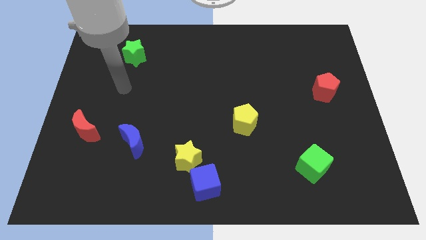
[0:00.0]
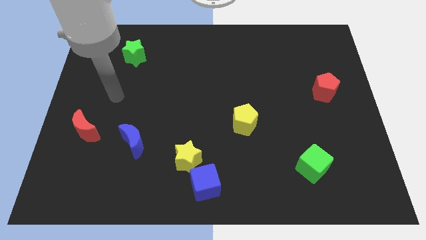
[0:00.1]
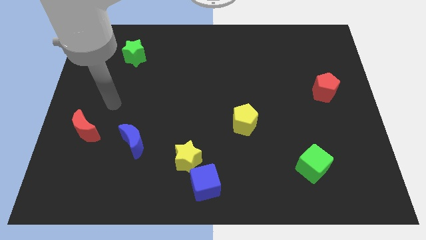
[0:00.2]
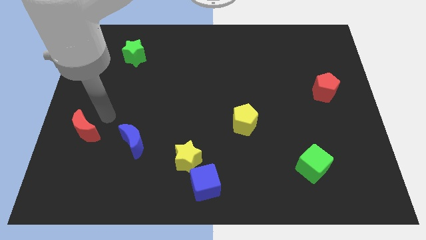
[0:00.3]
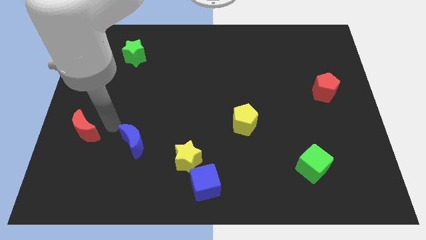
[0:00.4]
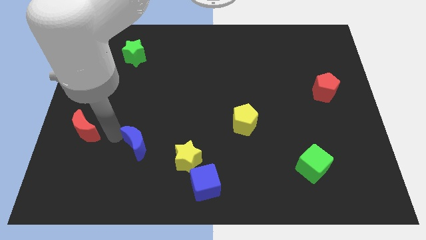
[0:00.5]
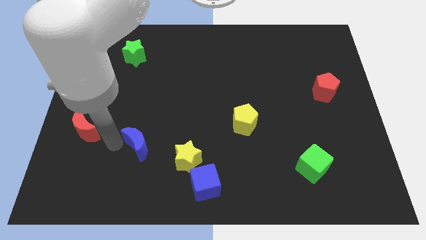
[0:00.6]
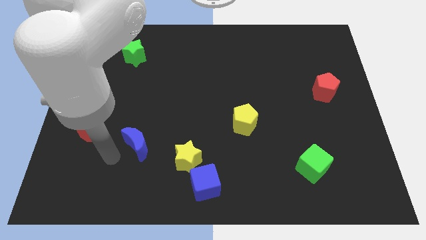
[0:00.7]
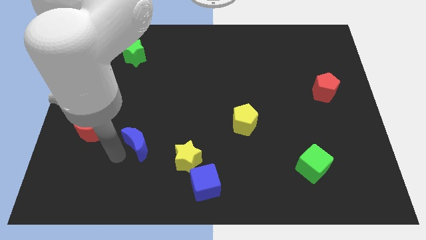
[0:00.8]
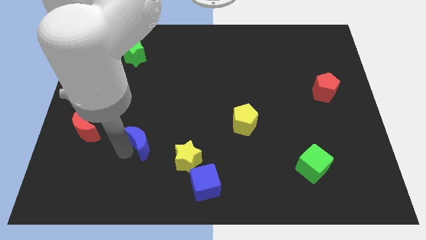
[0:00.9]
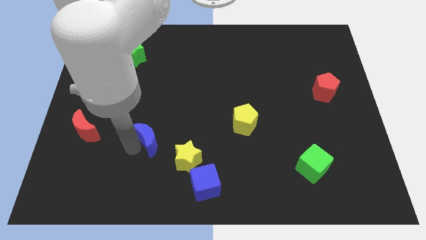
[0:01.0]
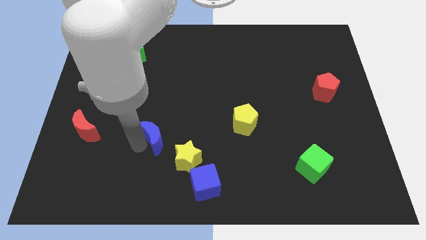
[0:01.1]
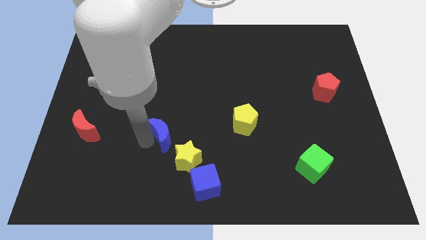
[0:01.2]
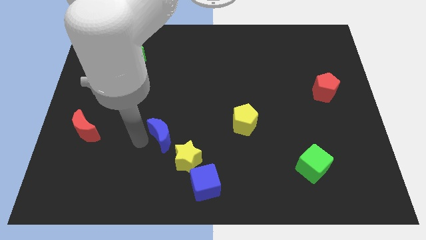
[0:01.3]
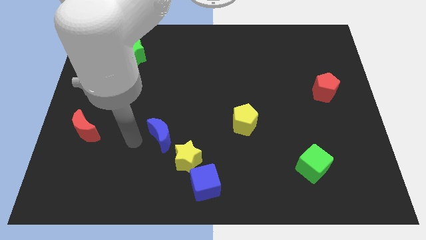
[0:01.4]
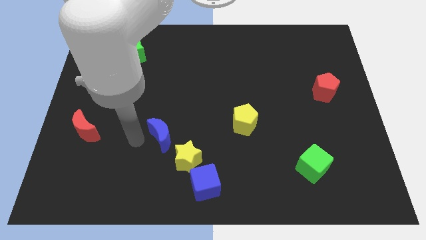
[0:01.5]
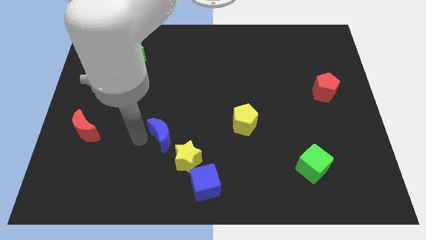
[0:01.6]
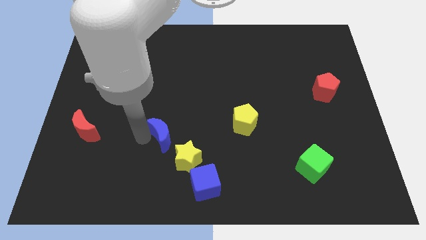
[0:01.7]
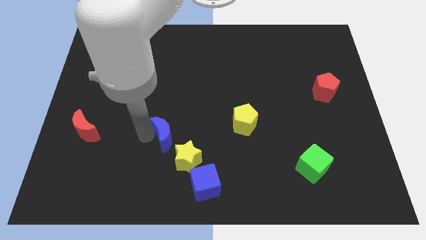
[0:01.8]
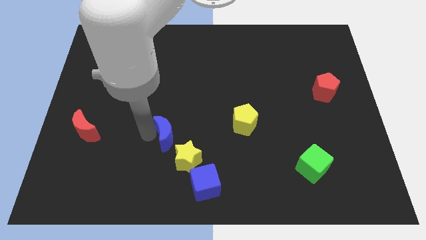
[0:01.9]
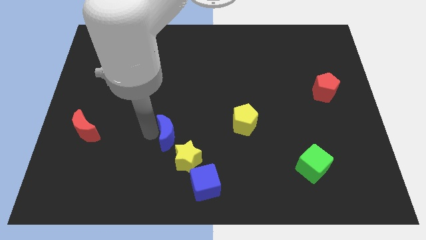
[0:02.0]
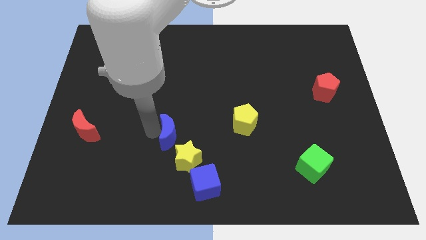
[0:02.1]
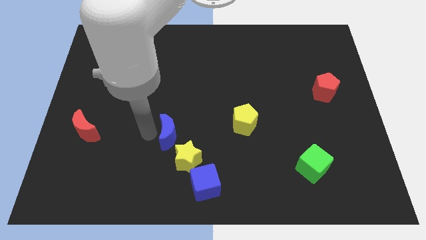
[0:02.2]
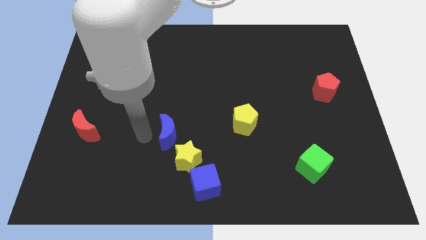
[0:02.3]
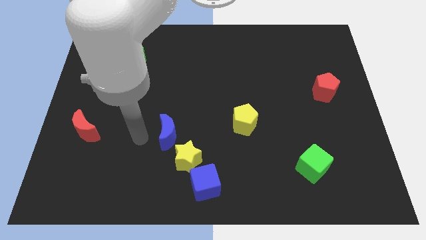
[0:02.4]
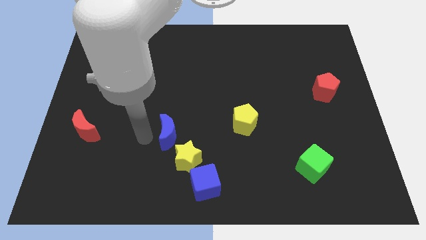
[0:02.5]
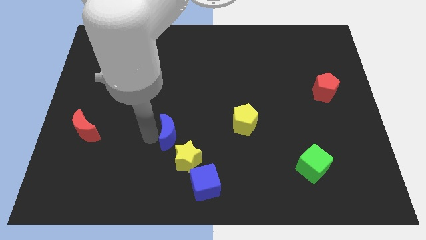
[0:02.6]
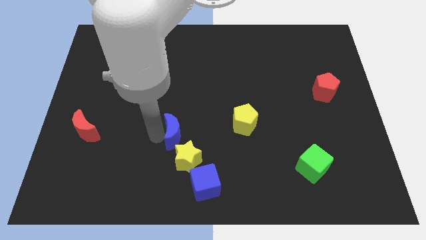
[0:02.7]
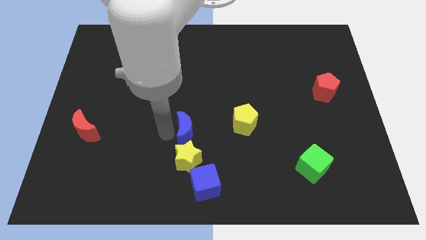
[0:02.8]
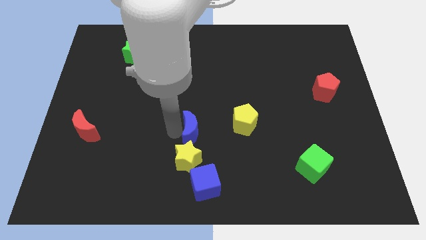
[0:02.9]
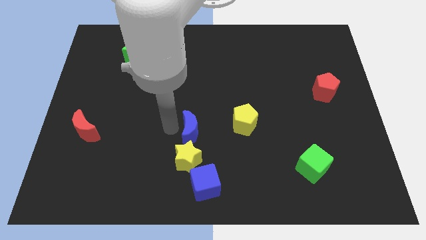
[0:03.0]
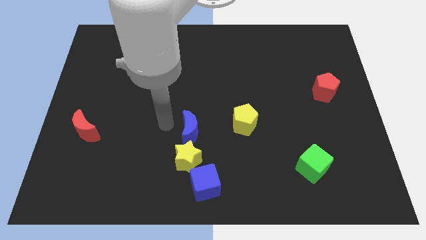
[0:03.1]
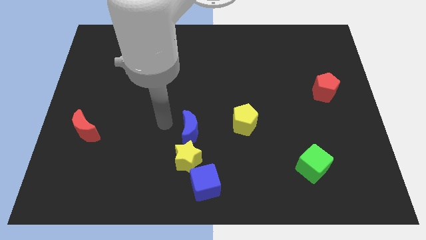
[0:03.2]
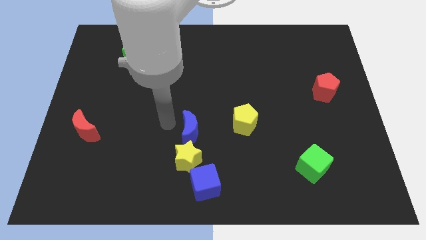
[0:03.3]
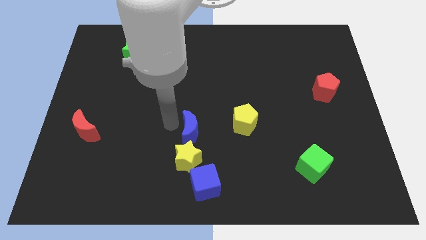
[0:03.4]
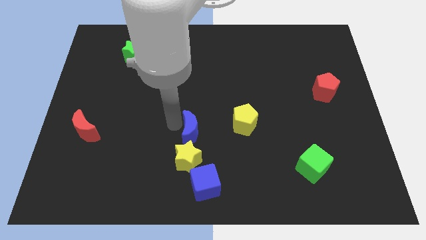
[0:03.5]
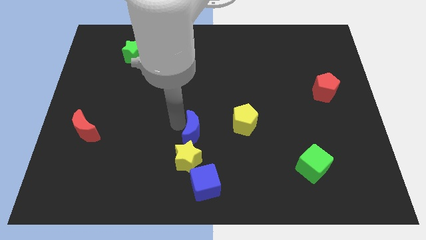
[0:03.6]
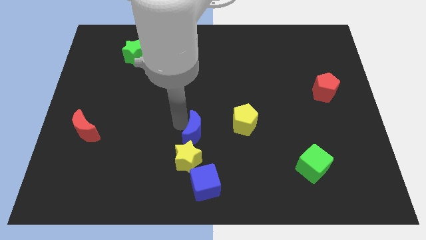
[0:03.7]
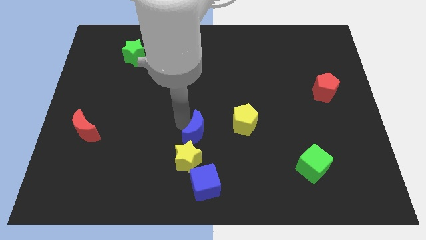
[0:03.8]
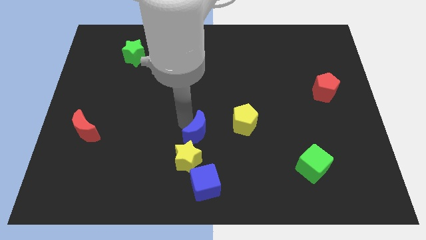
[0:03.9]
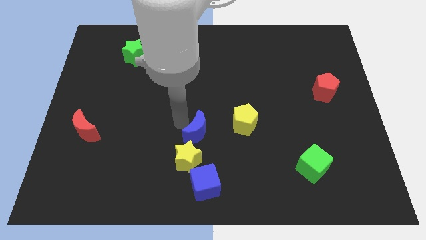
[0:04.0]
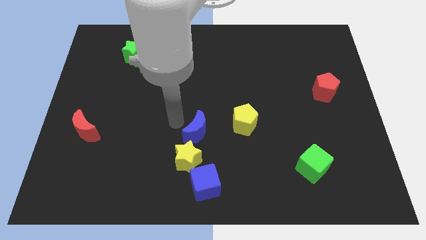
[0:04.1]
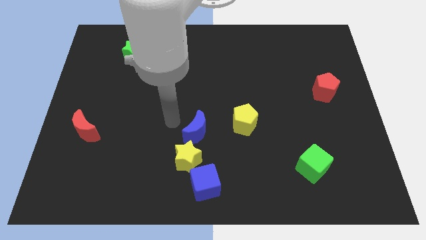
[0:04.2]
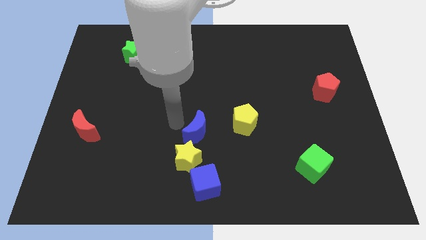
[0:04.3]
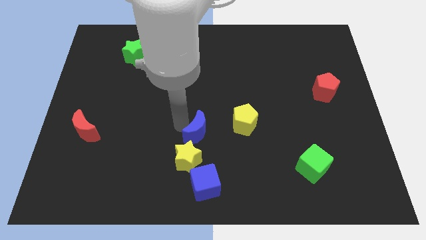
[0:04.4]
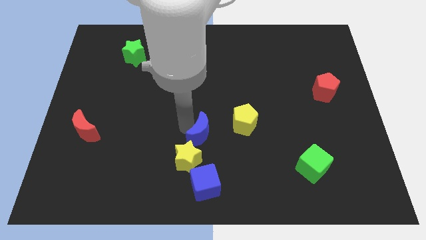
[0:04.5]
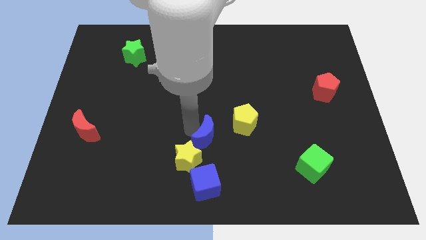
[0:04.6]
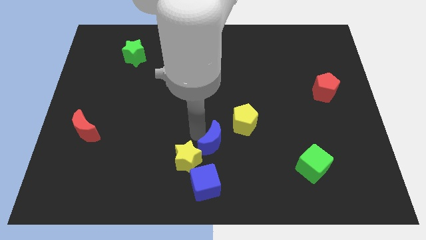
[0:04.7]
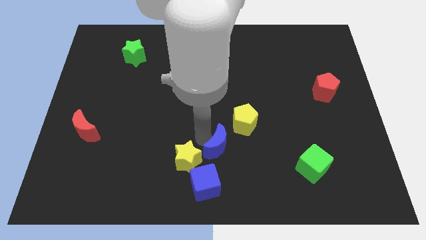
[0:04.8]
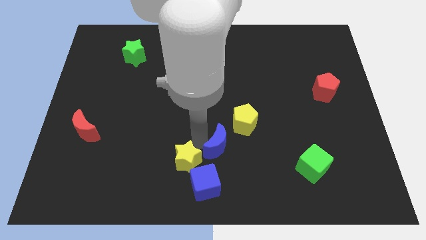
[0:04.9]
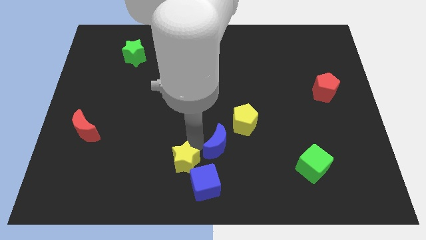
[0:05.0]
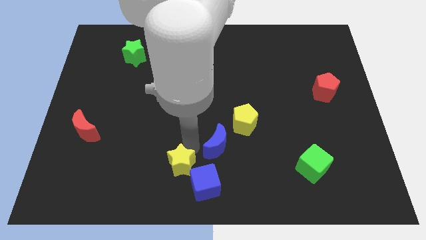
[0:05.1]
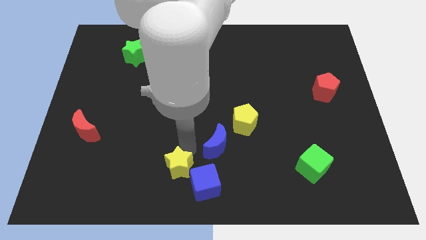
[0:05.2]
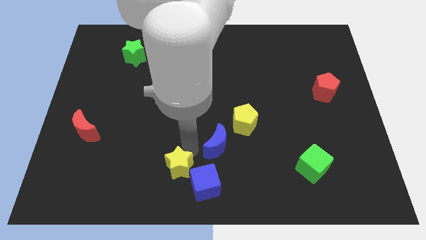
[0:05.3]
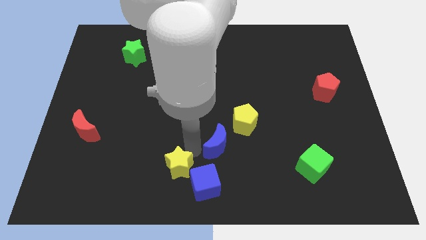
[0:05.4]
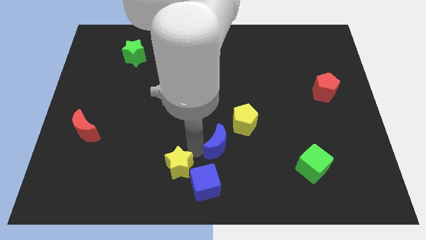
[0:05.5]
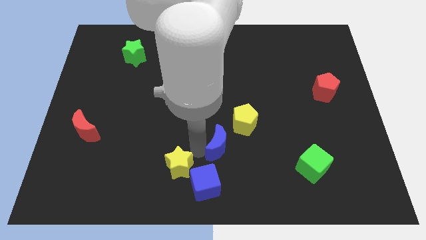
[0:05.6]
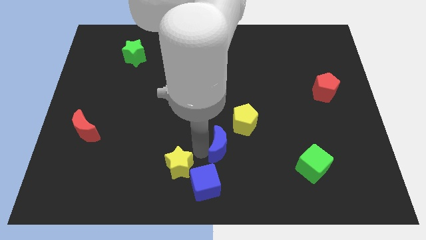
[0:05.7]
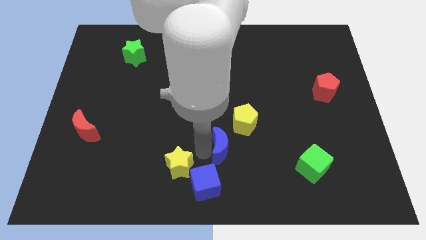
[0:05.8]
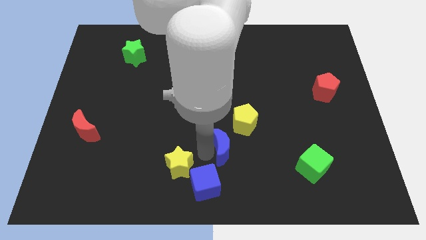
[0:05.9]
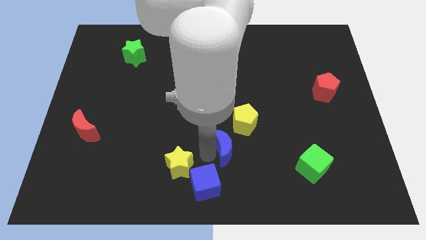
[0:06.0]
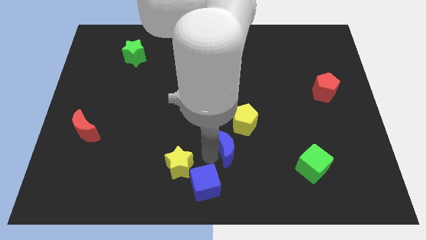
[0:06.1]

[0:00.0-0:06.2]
push the blue moon to the right

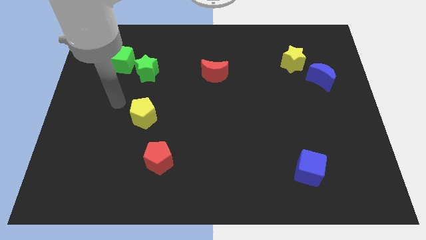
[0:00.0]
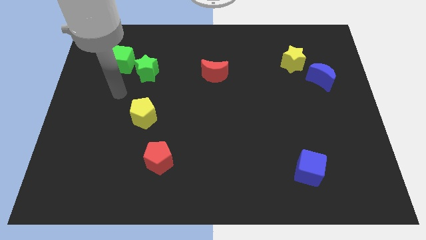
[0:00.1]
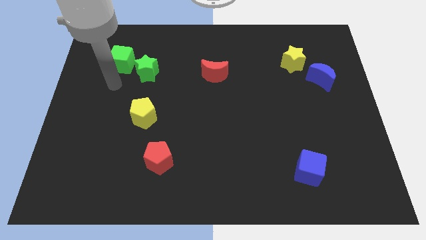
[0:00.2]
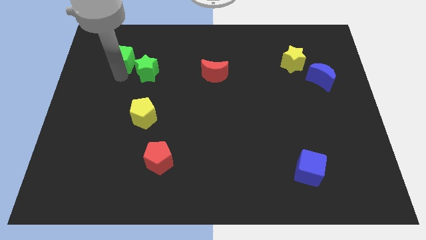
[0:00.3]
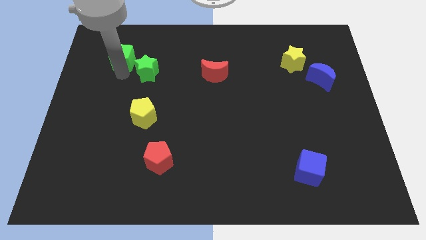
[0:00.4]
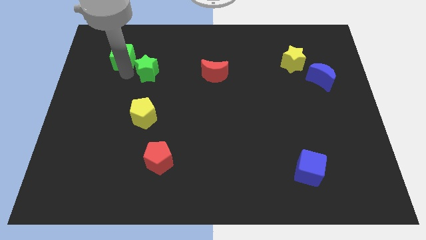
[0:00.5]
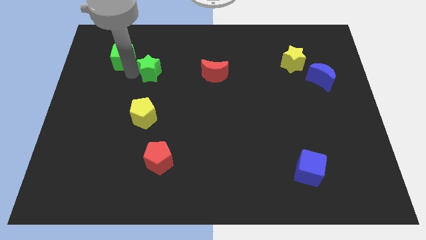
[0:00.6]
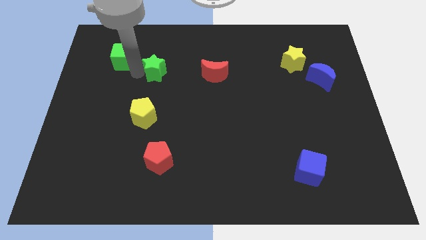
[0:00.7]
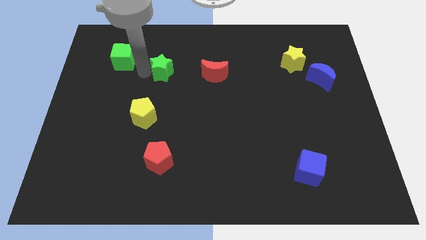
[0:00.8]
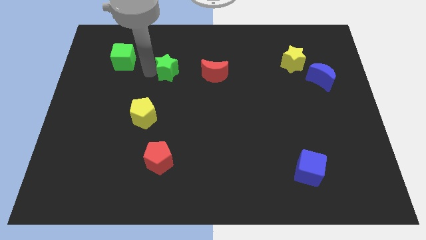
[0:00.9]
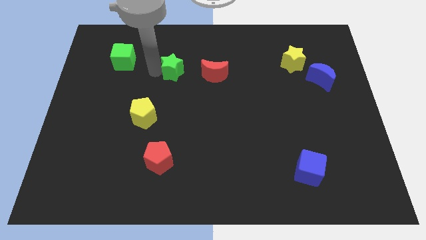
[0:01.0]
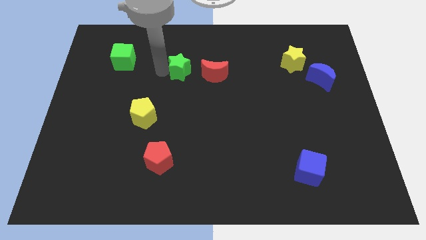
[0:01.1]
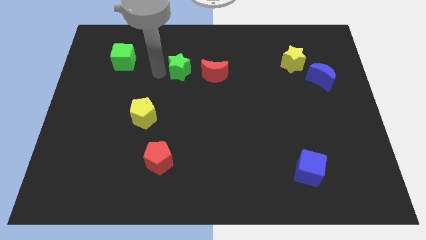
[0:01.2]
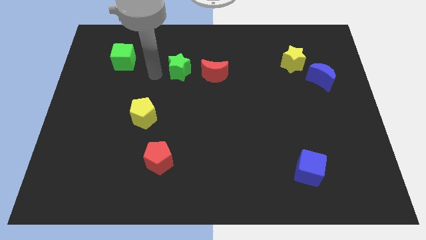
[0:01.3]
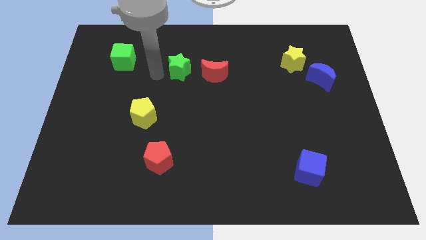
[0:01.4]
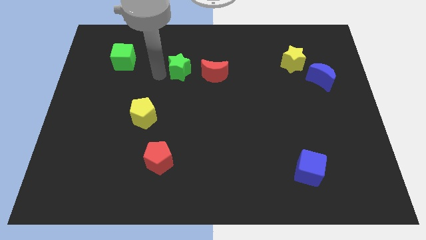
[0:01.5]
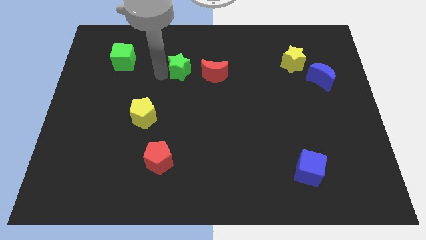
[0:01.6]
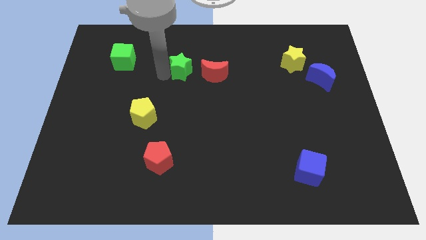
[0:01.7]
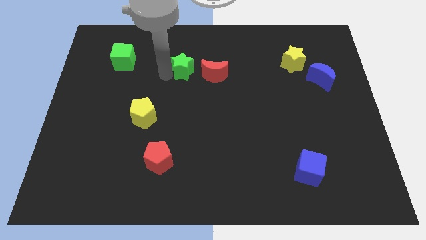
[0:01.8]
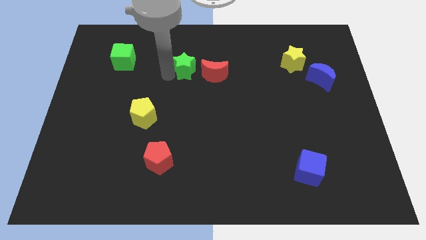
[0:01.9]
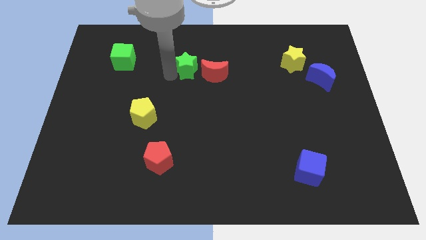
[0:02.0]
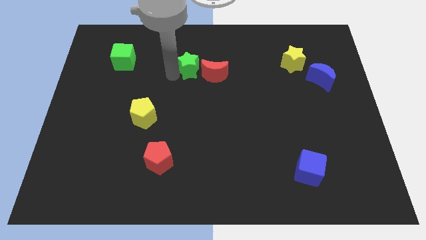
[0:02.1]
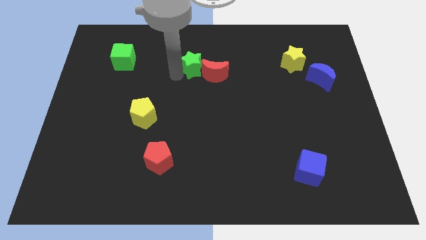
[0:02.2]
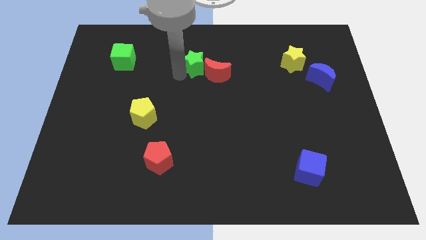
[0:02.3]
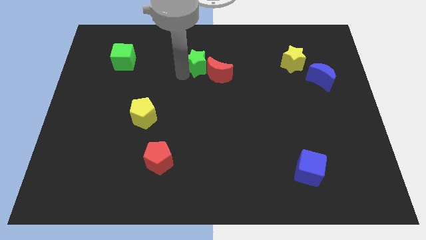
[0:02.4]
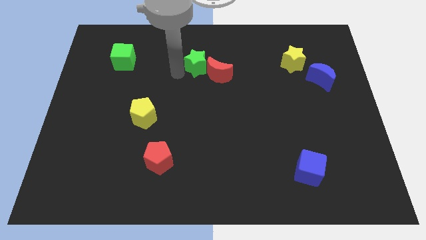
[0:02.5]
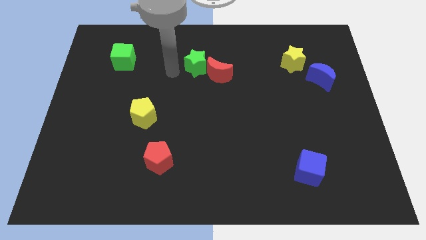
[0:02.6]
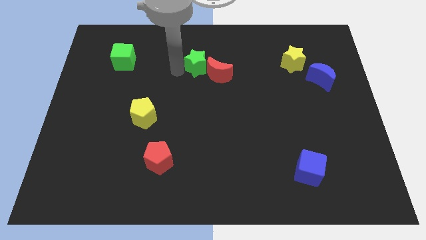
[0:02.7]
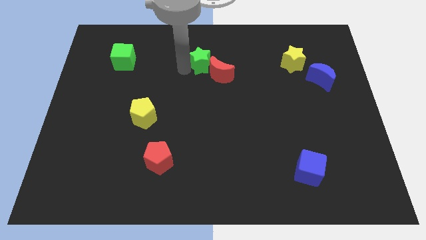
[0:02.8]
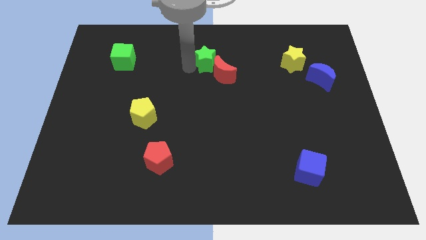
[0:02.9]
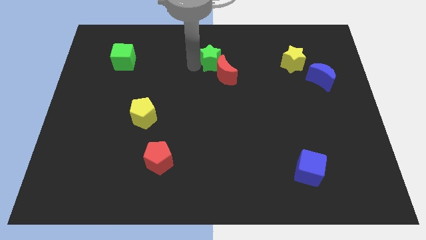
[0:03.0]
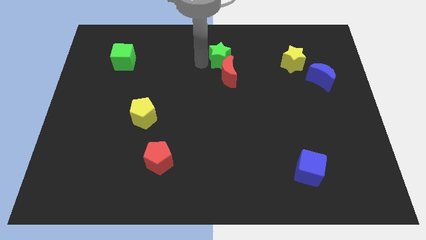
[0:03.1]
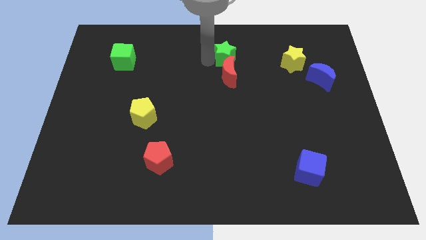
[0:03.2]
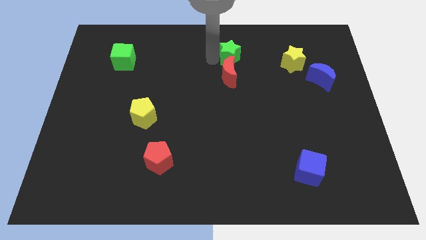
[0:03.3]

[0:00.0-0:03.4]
slide the green star to the right
